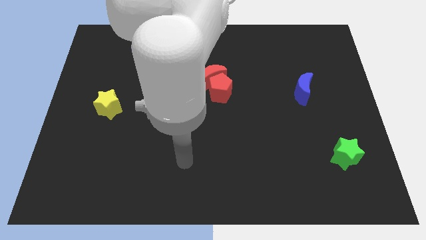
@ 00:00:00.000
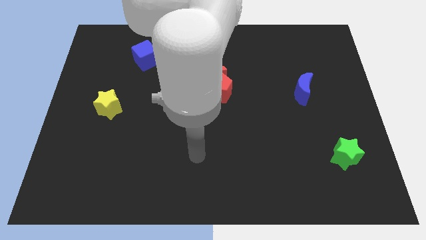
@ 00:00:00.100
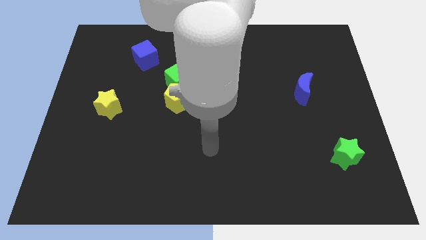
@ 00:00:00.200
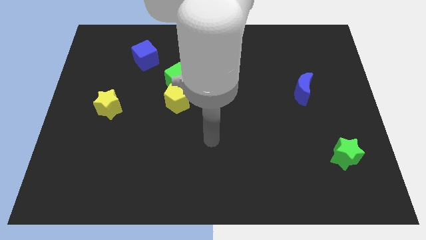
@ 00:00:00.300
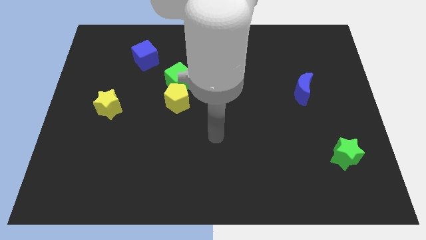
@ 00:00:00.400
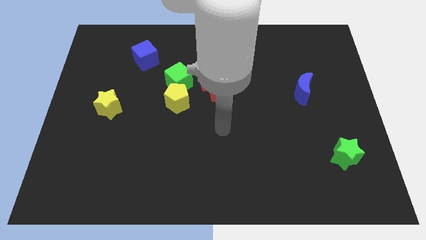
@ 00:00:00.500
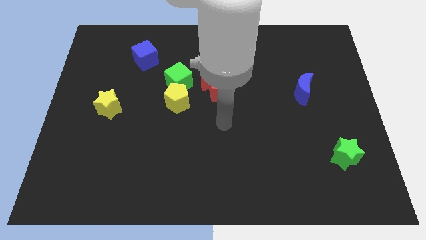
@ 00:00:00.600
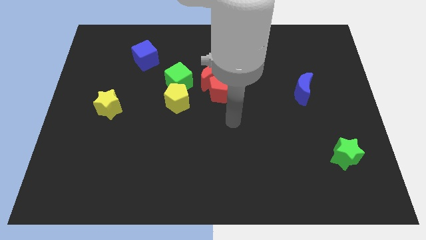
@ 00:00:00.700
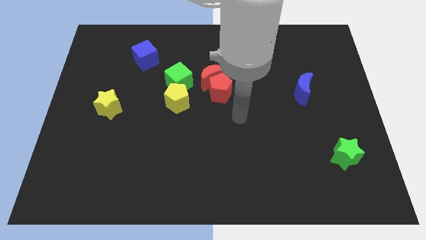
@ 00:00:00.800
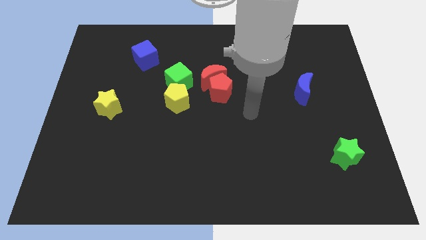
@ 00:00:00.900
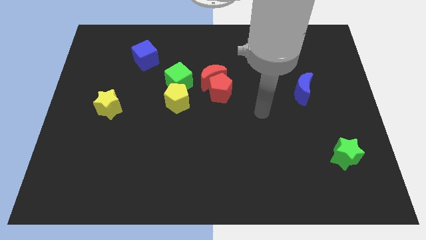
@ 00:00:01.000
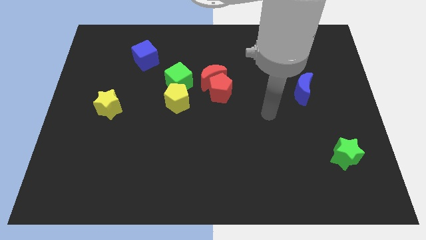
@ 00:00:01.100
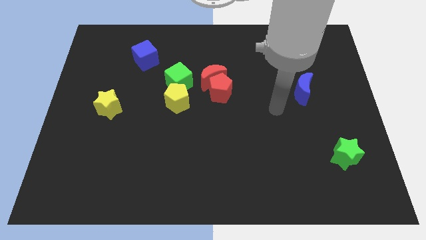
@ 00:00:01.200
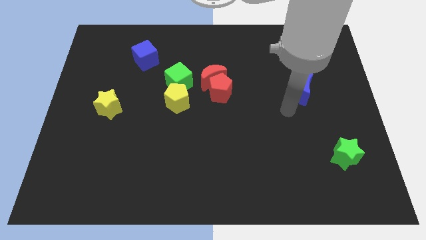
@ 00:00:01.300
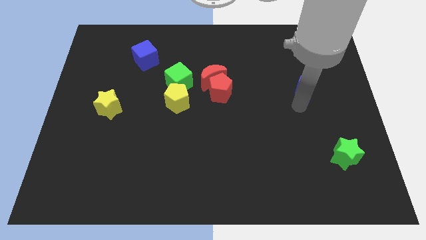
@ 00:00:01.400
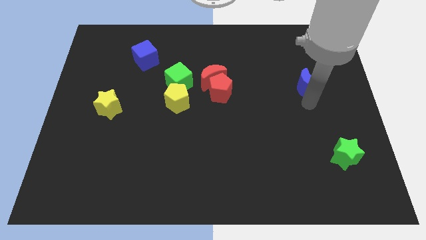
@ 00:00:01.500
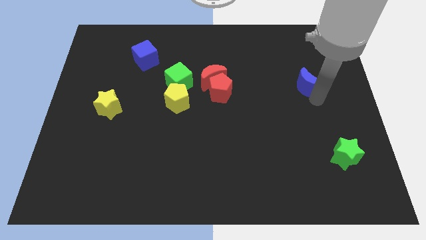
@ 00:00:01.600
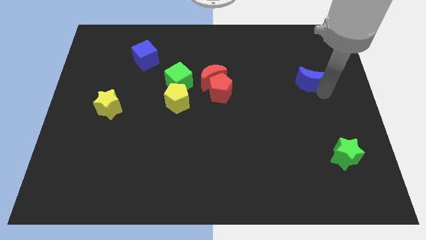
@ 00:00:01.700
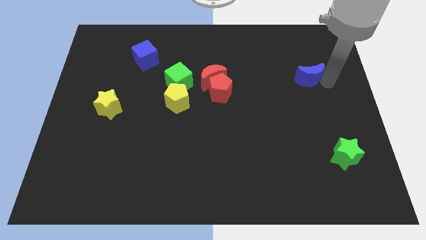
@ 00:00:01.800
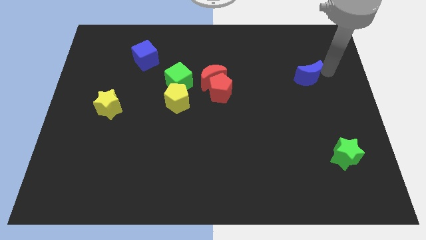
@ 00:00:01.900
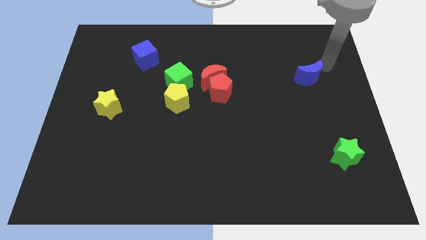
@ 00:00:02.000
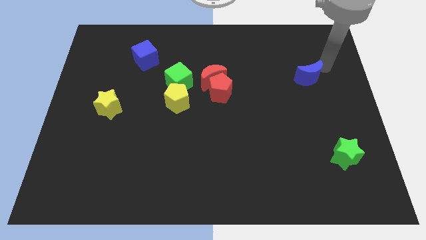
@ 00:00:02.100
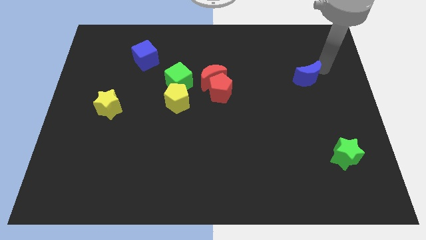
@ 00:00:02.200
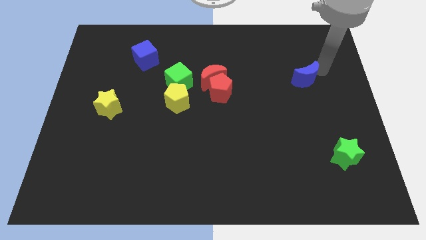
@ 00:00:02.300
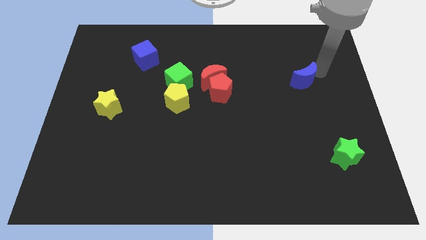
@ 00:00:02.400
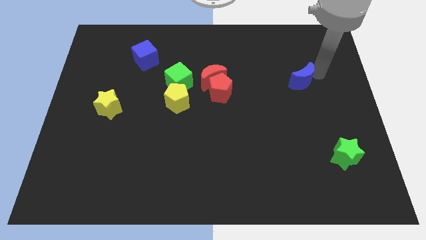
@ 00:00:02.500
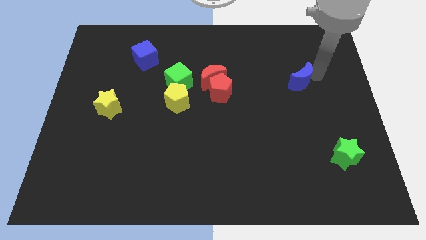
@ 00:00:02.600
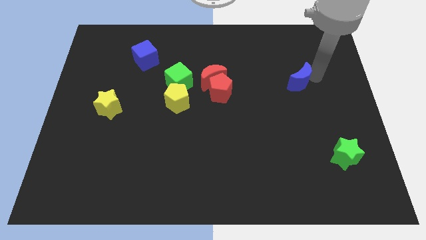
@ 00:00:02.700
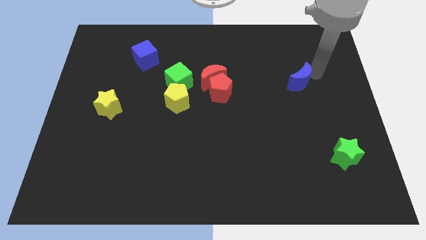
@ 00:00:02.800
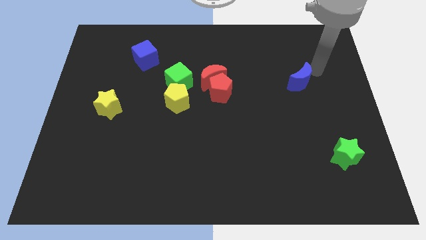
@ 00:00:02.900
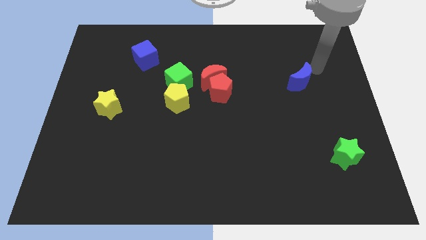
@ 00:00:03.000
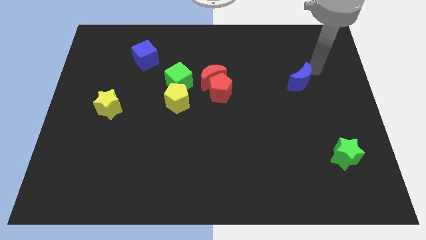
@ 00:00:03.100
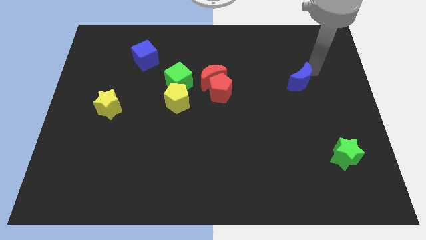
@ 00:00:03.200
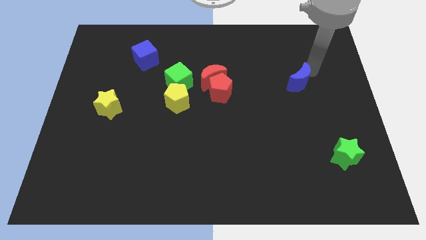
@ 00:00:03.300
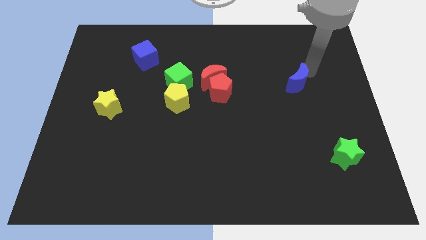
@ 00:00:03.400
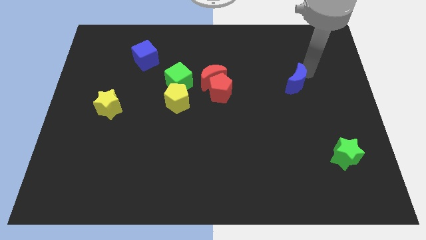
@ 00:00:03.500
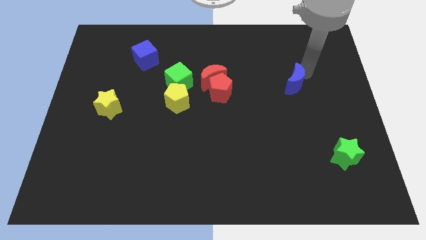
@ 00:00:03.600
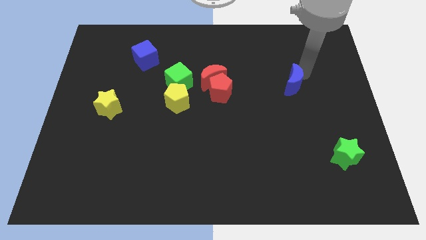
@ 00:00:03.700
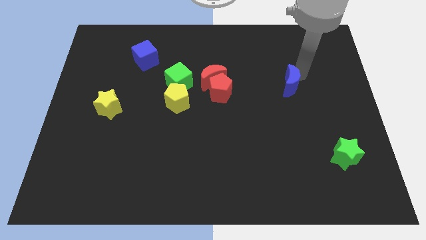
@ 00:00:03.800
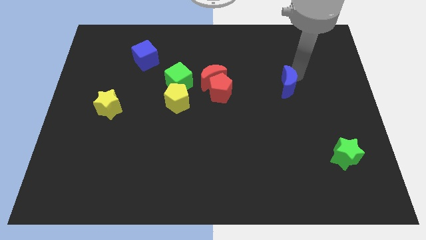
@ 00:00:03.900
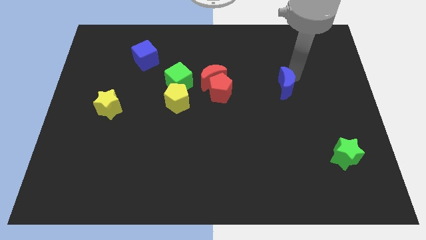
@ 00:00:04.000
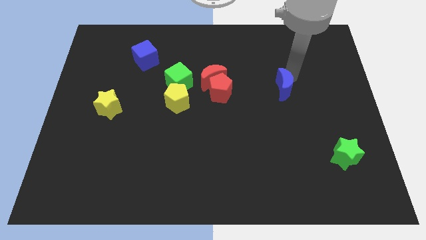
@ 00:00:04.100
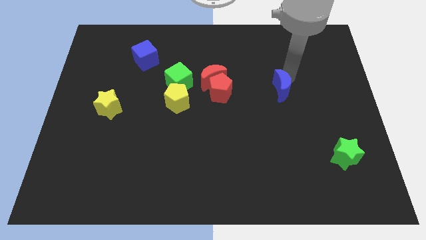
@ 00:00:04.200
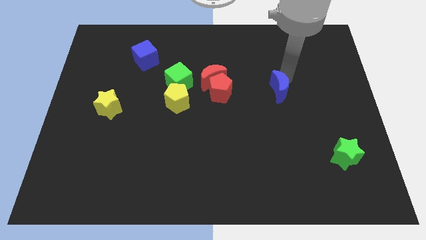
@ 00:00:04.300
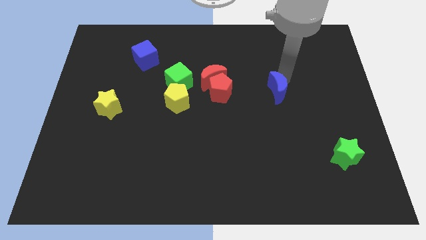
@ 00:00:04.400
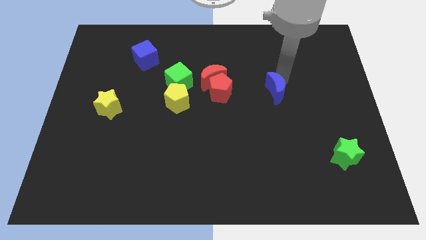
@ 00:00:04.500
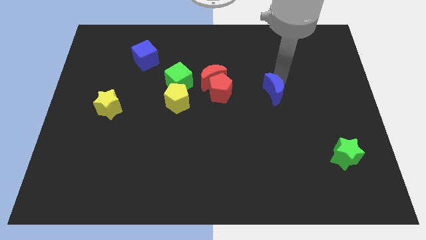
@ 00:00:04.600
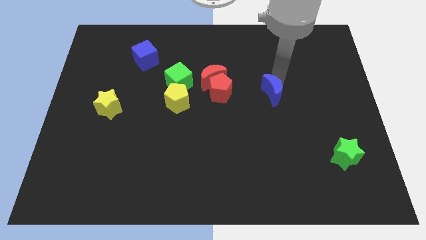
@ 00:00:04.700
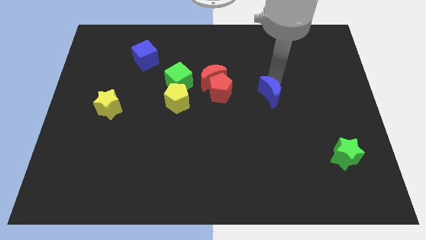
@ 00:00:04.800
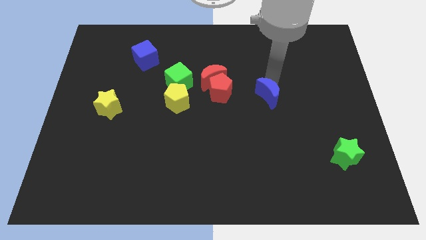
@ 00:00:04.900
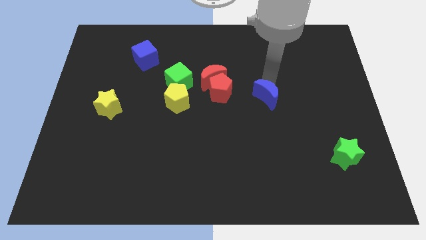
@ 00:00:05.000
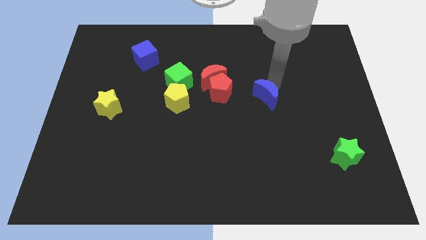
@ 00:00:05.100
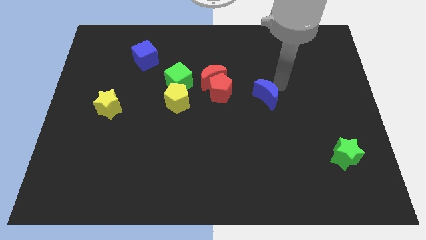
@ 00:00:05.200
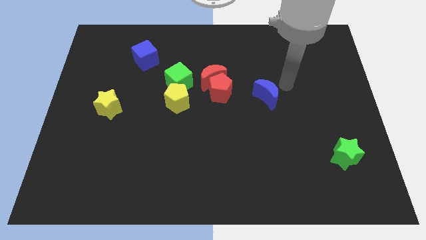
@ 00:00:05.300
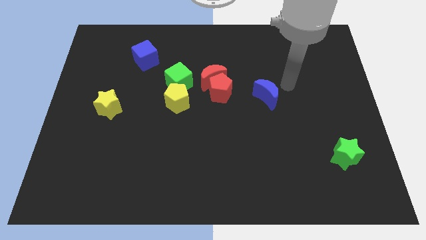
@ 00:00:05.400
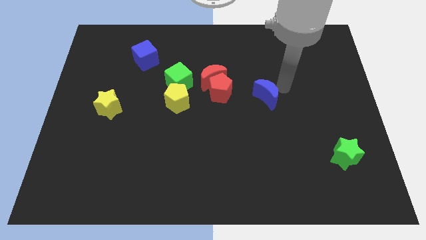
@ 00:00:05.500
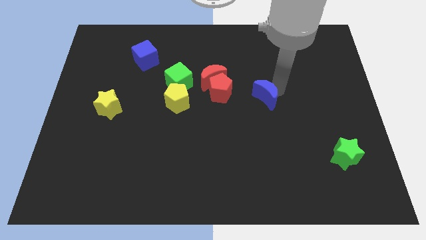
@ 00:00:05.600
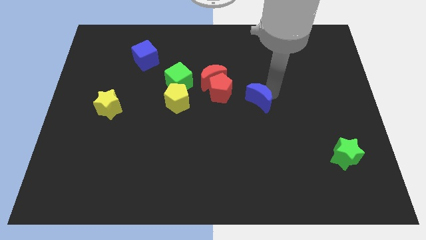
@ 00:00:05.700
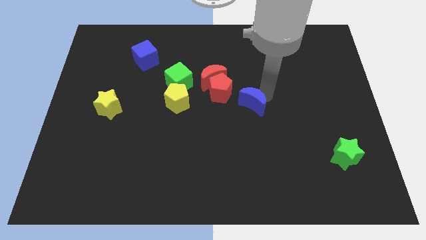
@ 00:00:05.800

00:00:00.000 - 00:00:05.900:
push the blue moon to the bottom right of the red pentagon

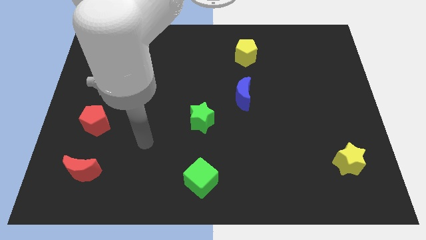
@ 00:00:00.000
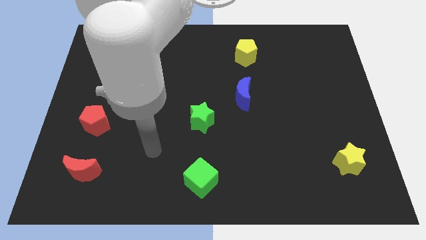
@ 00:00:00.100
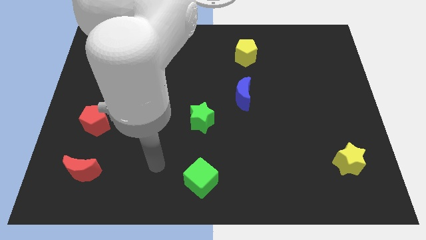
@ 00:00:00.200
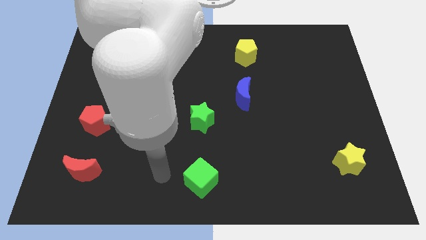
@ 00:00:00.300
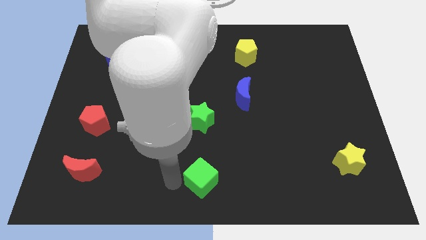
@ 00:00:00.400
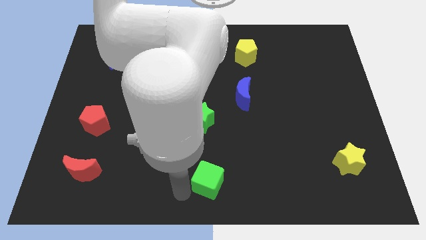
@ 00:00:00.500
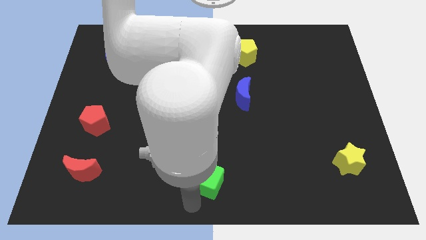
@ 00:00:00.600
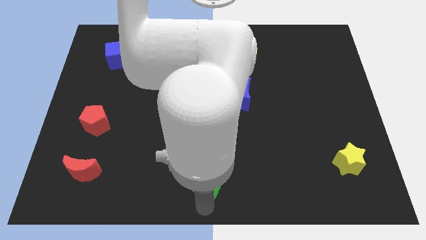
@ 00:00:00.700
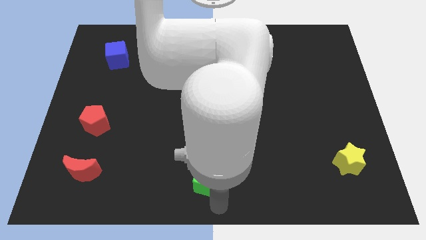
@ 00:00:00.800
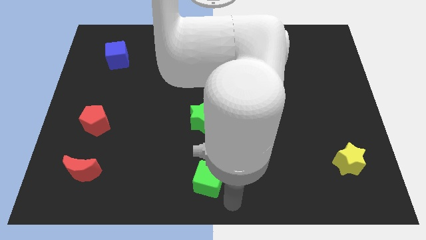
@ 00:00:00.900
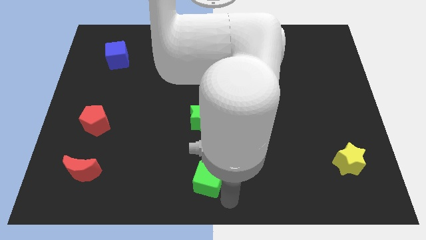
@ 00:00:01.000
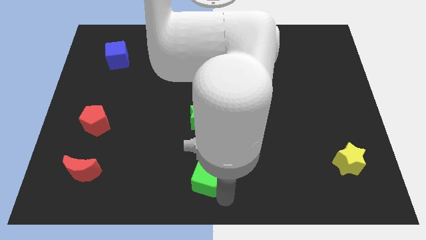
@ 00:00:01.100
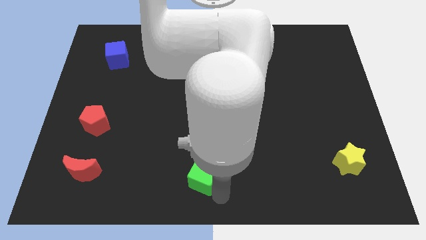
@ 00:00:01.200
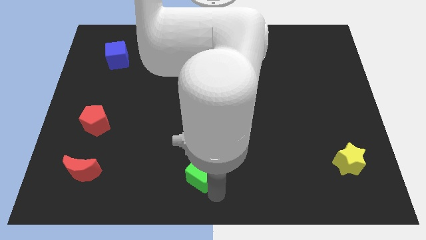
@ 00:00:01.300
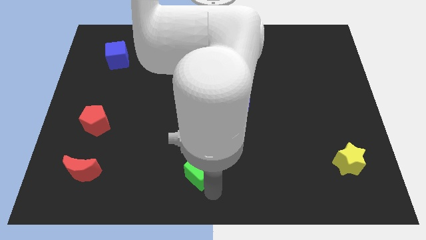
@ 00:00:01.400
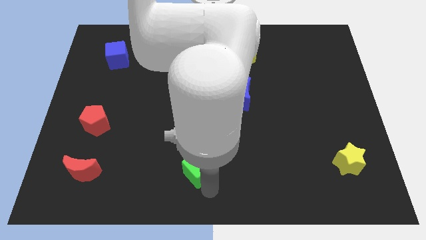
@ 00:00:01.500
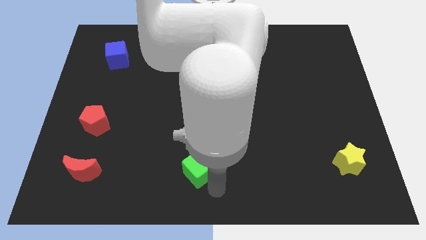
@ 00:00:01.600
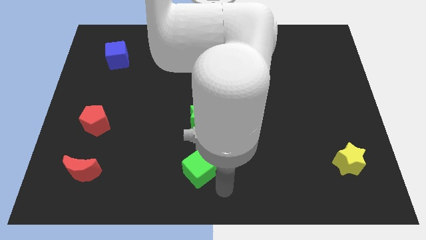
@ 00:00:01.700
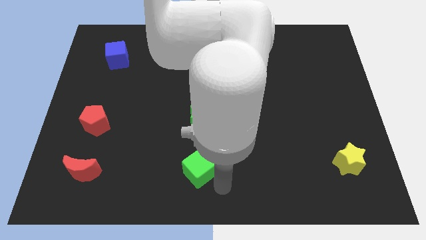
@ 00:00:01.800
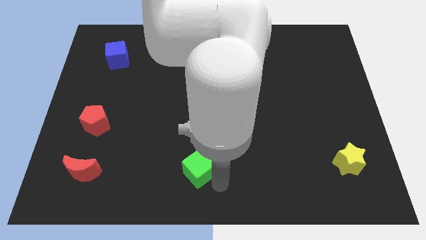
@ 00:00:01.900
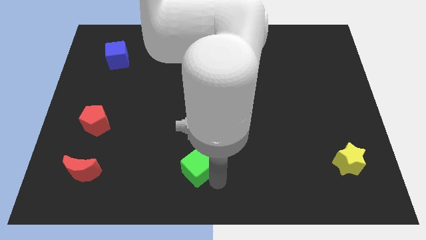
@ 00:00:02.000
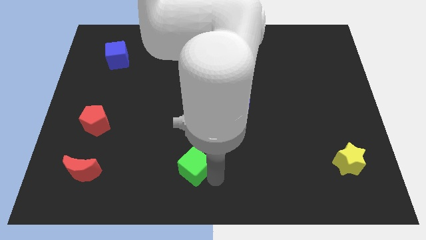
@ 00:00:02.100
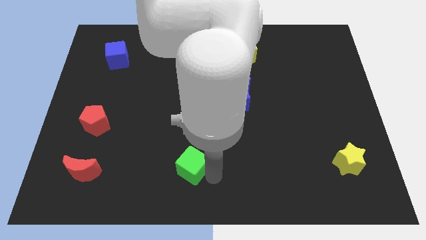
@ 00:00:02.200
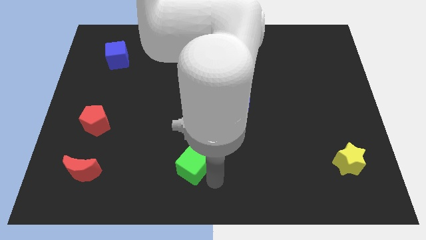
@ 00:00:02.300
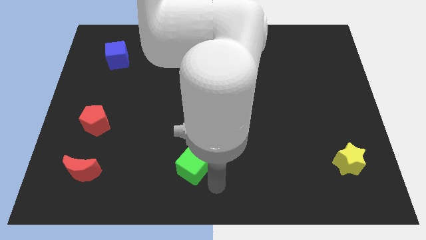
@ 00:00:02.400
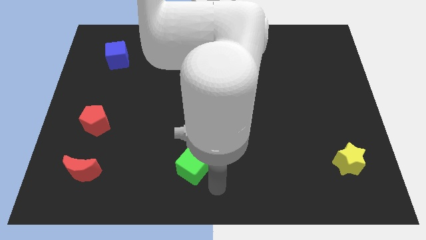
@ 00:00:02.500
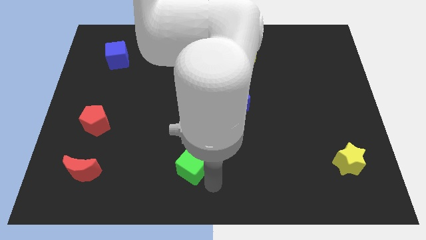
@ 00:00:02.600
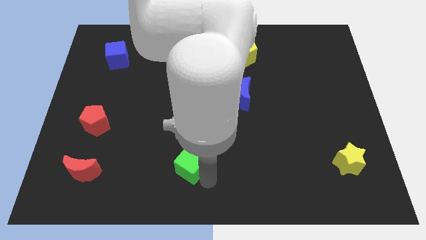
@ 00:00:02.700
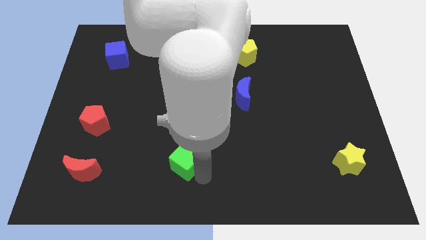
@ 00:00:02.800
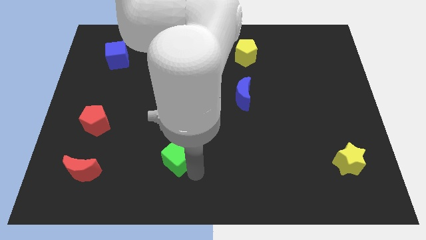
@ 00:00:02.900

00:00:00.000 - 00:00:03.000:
put the green cube to the bottom left side of the green star
